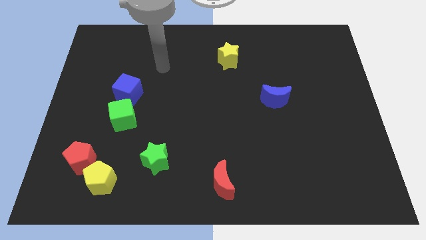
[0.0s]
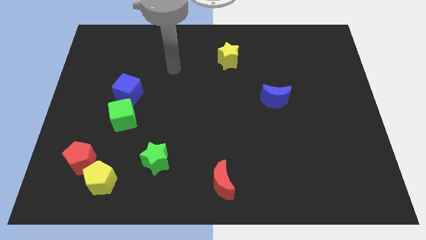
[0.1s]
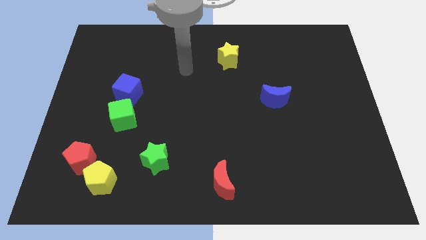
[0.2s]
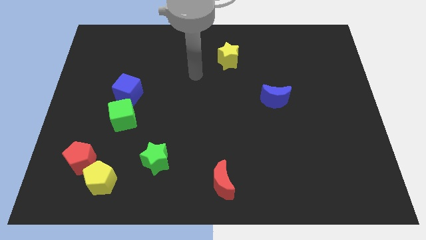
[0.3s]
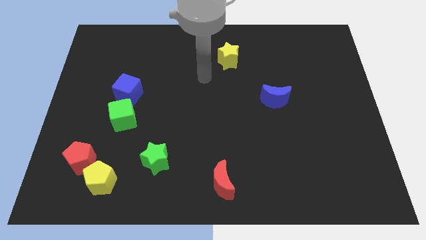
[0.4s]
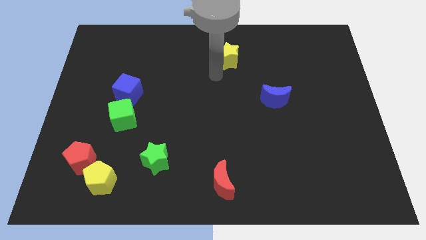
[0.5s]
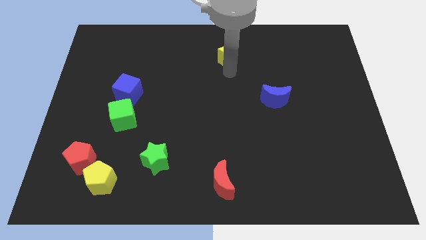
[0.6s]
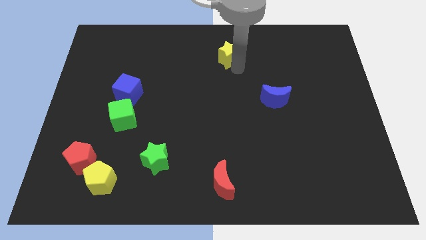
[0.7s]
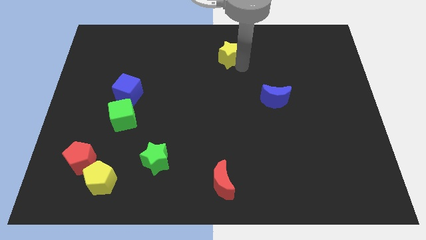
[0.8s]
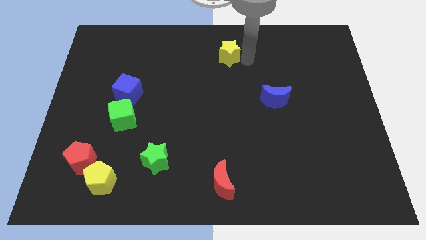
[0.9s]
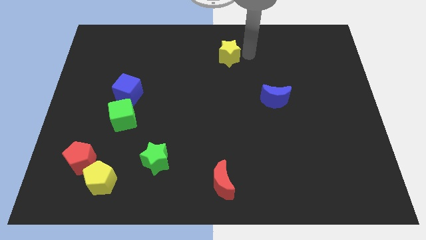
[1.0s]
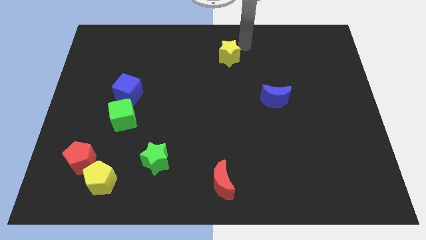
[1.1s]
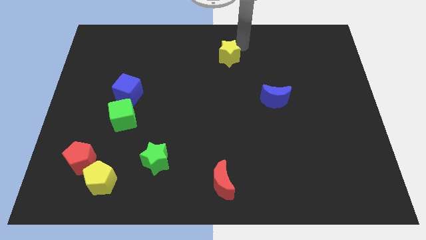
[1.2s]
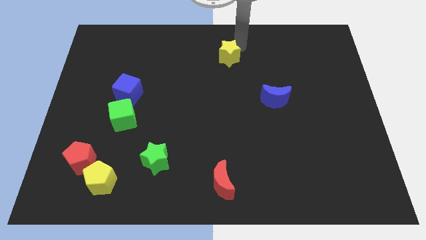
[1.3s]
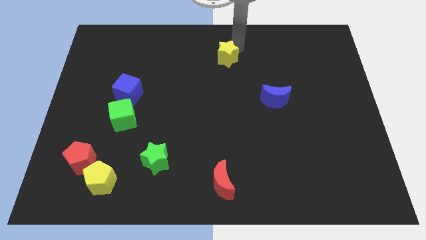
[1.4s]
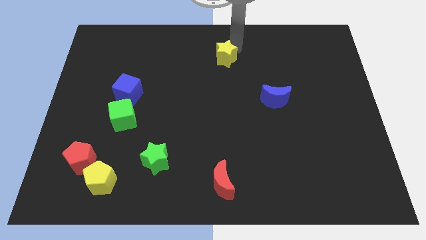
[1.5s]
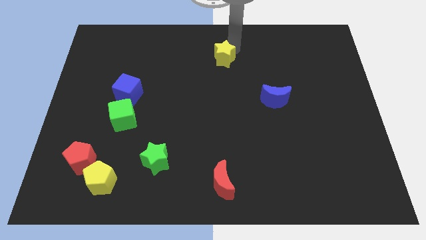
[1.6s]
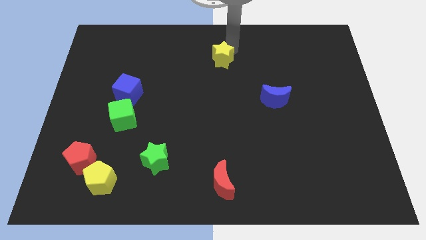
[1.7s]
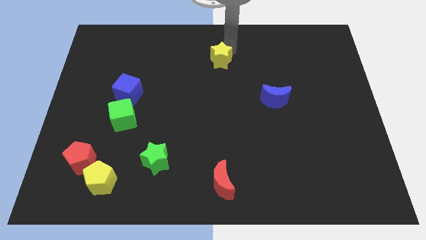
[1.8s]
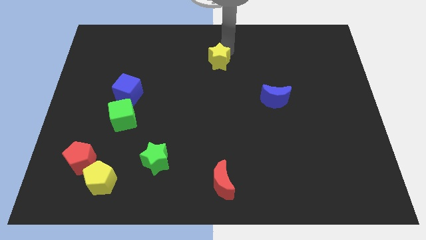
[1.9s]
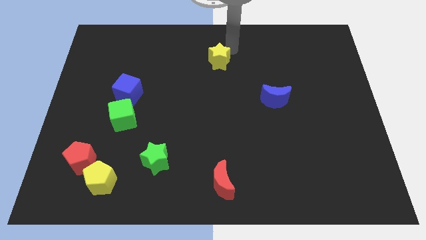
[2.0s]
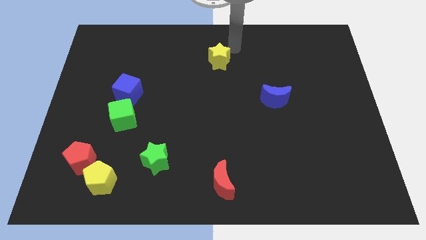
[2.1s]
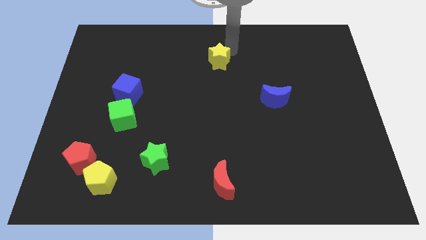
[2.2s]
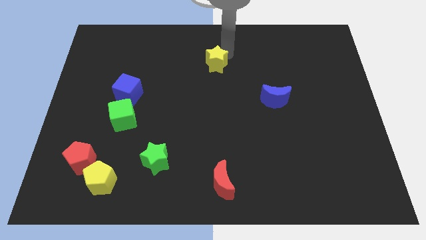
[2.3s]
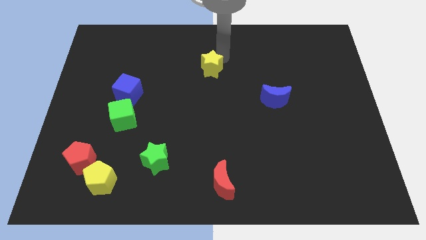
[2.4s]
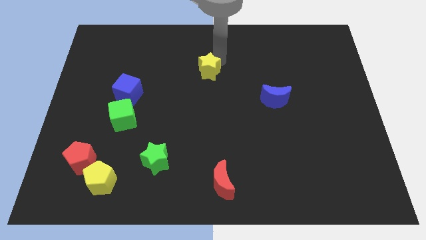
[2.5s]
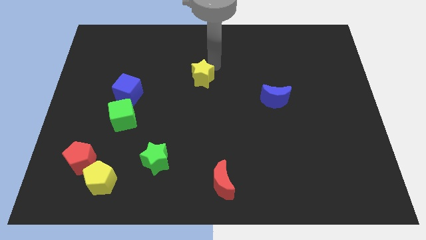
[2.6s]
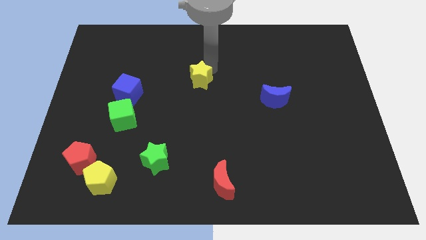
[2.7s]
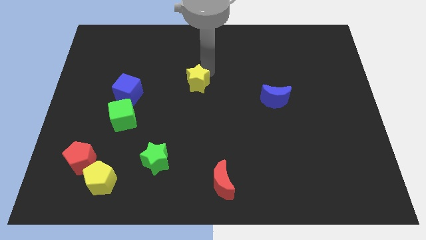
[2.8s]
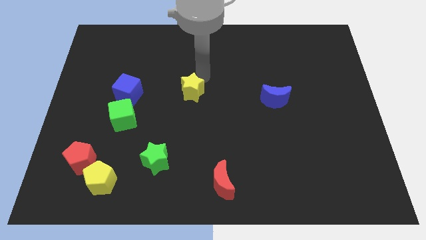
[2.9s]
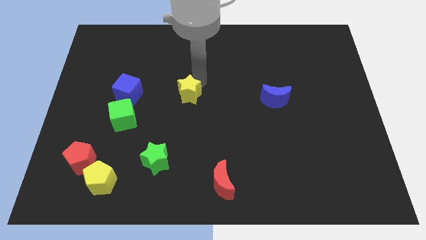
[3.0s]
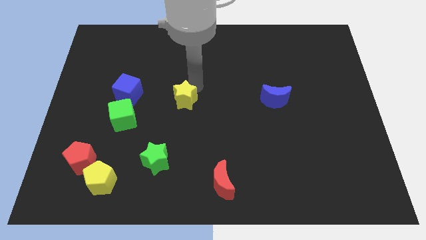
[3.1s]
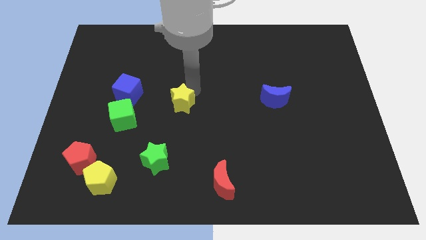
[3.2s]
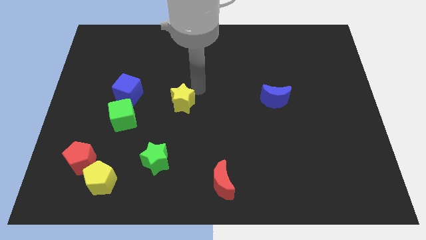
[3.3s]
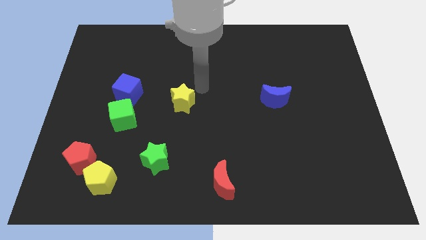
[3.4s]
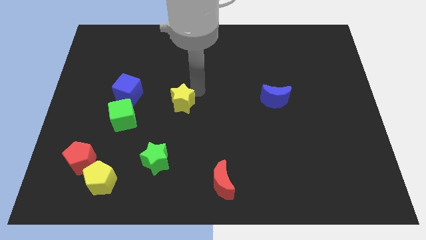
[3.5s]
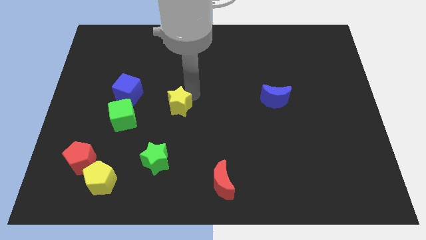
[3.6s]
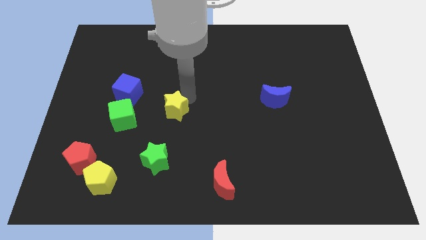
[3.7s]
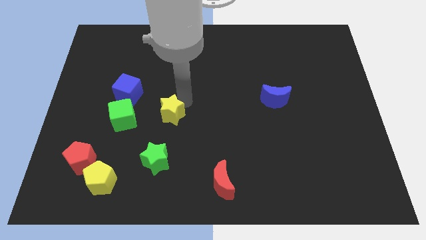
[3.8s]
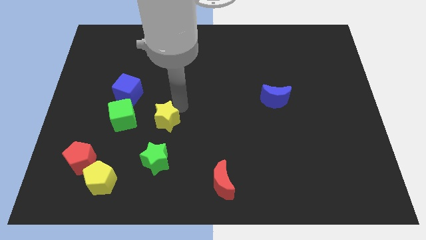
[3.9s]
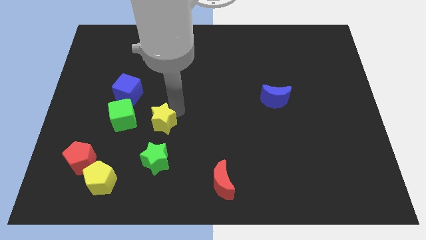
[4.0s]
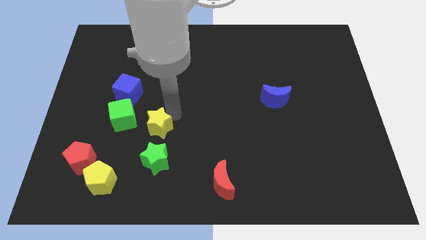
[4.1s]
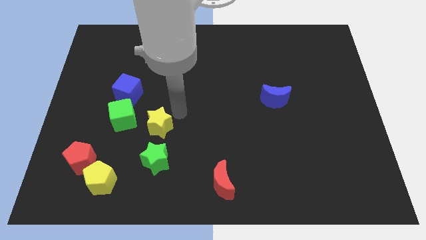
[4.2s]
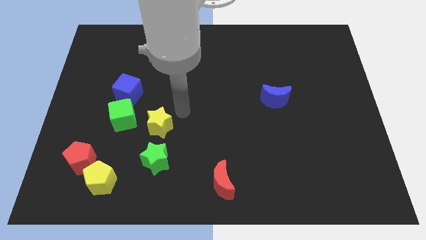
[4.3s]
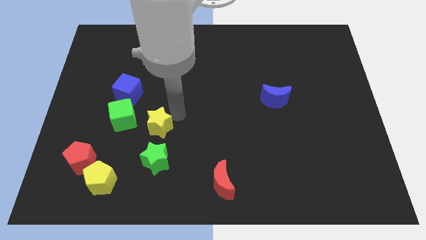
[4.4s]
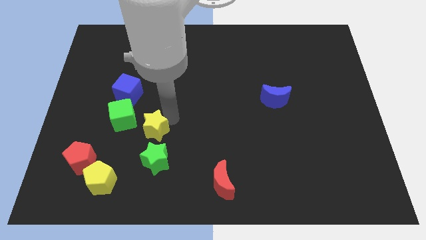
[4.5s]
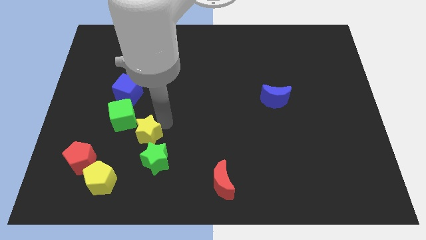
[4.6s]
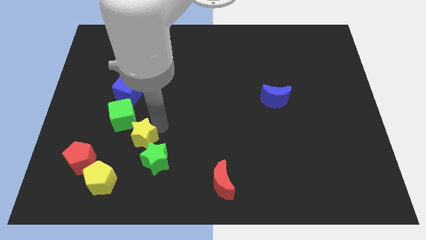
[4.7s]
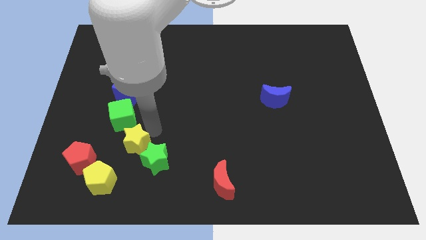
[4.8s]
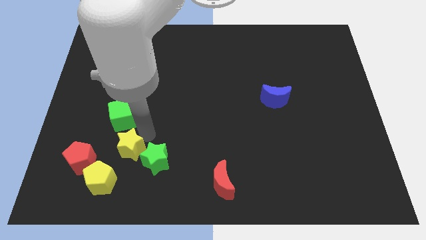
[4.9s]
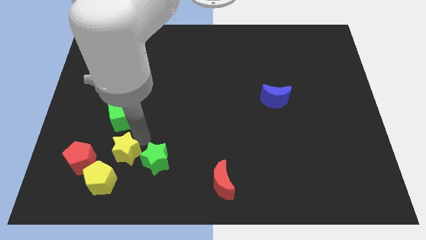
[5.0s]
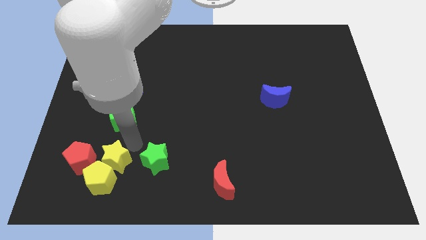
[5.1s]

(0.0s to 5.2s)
put the yellow star close to the yellow pentagon
